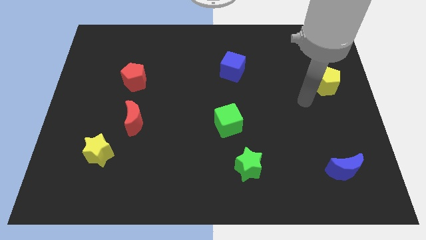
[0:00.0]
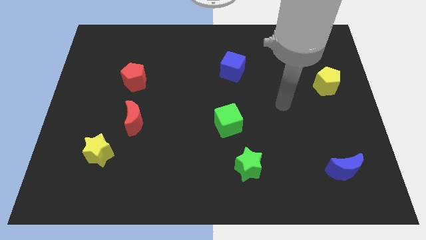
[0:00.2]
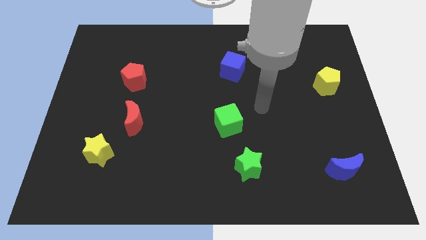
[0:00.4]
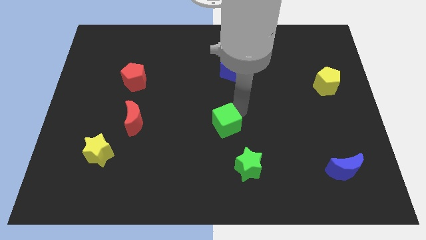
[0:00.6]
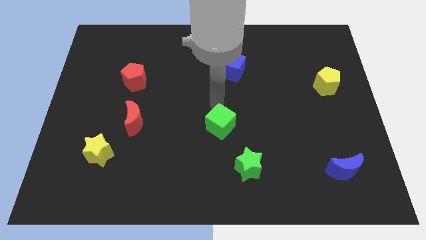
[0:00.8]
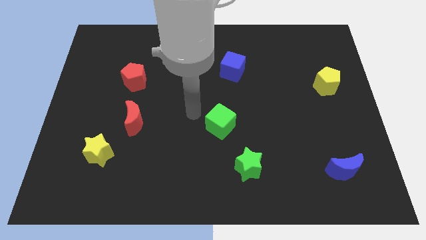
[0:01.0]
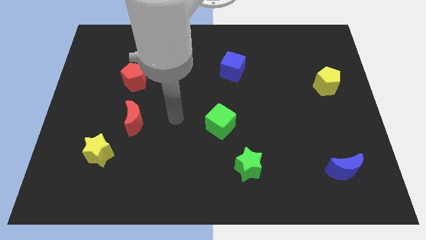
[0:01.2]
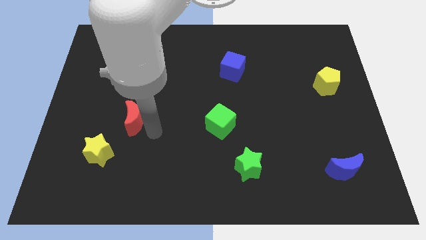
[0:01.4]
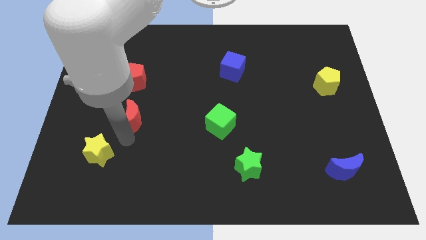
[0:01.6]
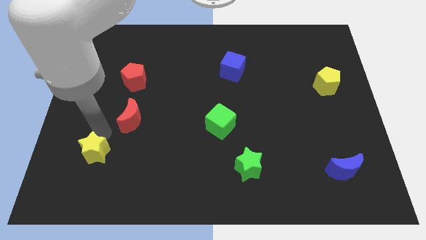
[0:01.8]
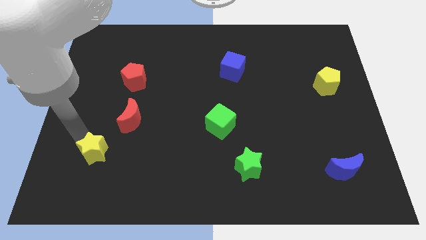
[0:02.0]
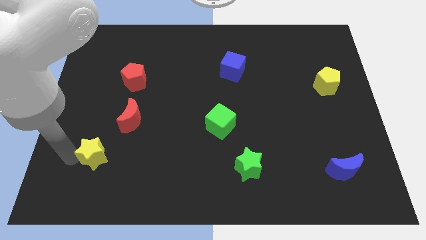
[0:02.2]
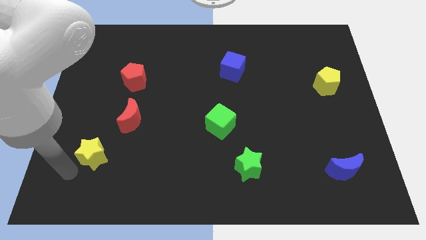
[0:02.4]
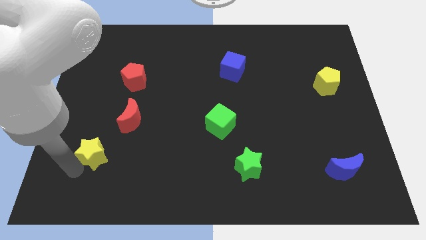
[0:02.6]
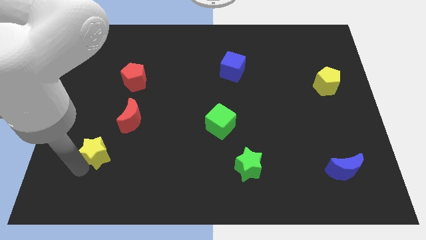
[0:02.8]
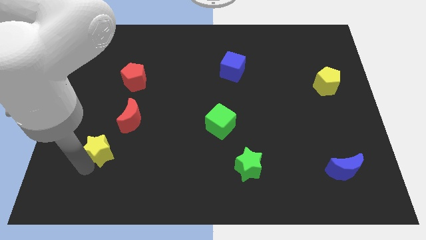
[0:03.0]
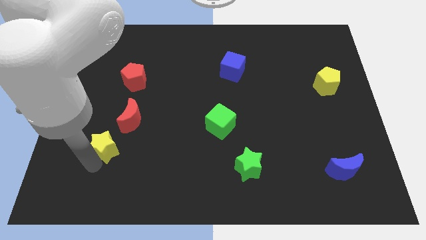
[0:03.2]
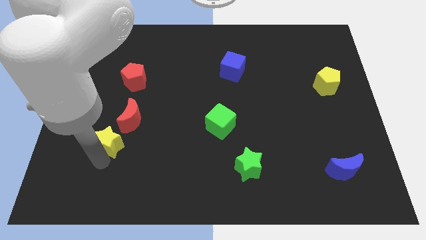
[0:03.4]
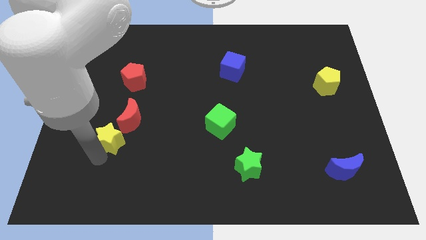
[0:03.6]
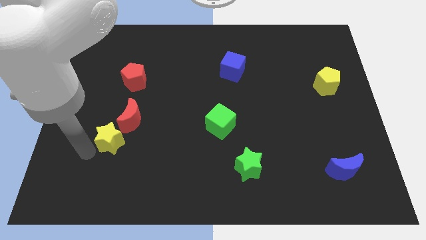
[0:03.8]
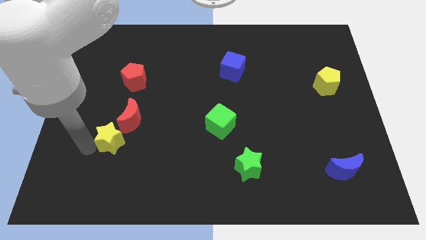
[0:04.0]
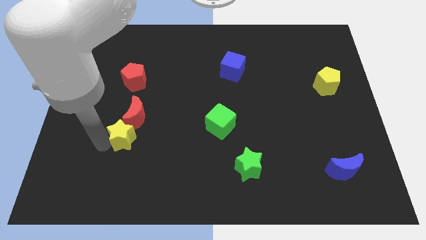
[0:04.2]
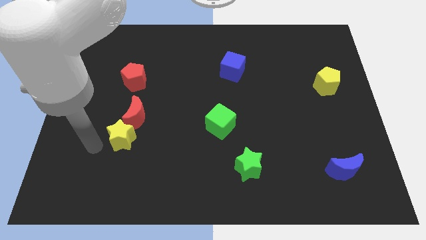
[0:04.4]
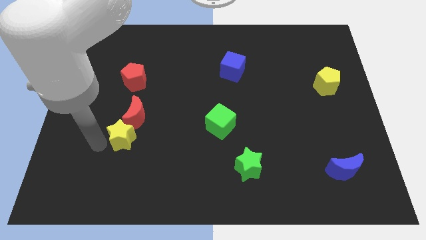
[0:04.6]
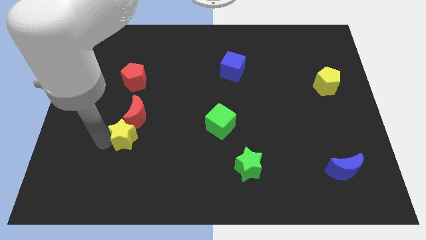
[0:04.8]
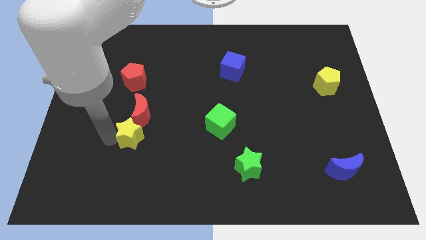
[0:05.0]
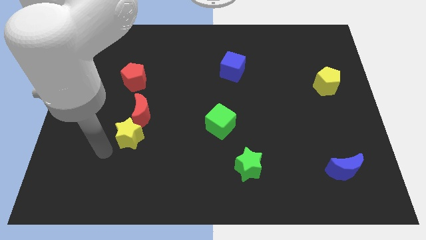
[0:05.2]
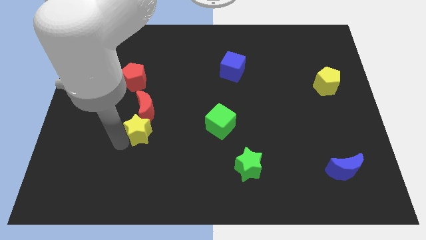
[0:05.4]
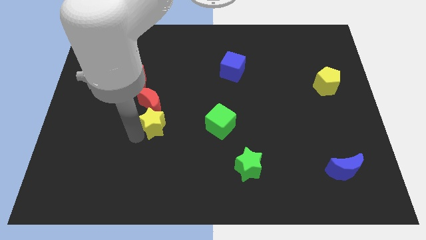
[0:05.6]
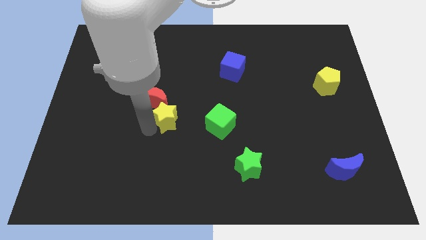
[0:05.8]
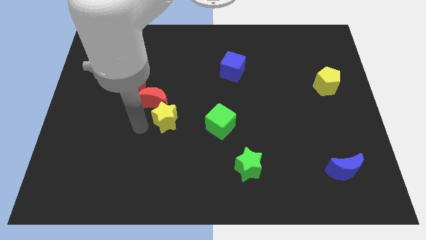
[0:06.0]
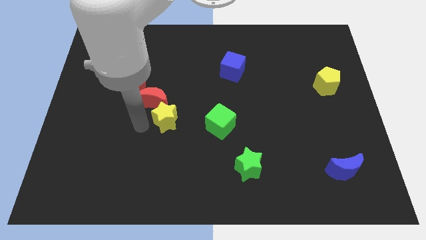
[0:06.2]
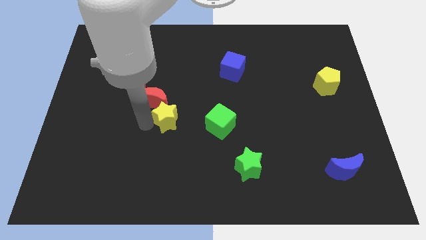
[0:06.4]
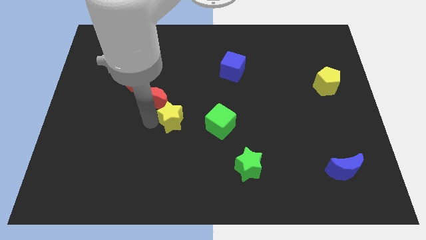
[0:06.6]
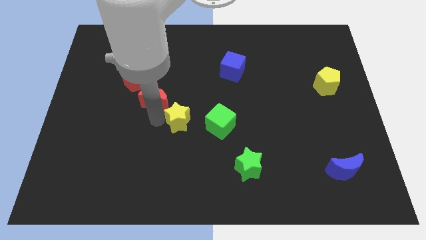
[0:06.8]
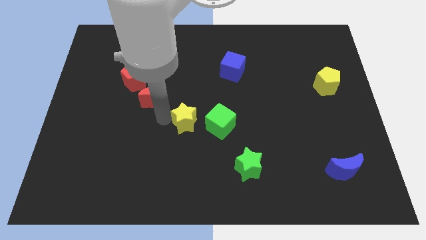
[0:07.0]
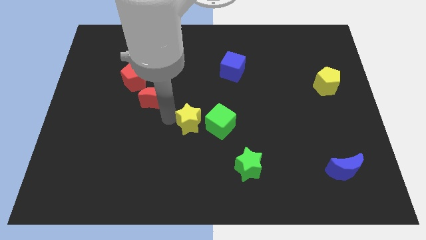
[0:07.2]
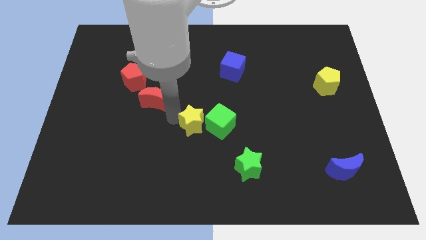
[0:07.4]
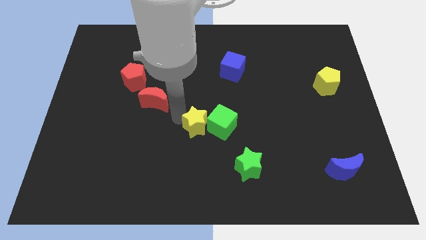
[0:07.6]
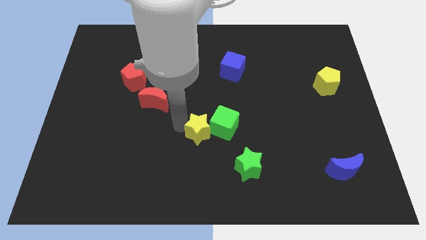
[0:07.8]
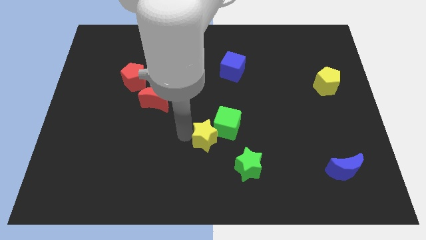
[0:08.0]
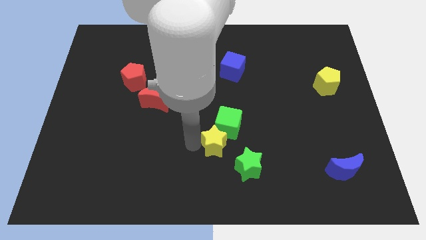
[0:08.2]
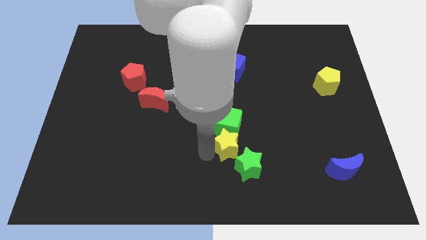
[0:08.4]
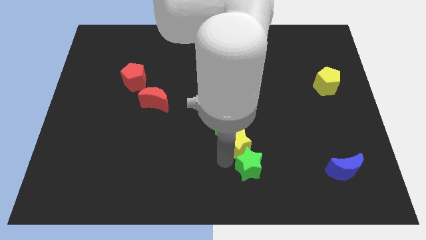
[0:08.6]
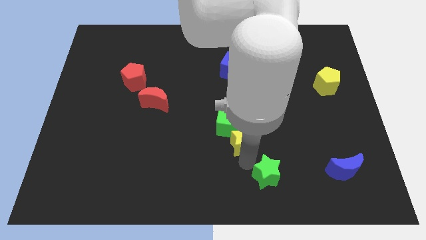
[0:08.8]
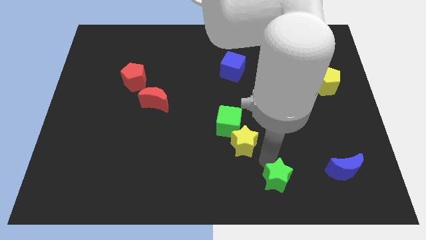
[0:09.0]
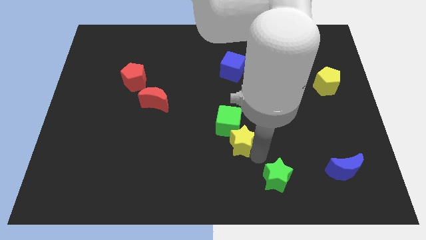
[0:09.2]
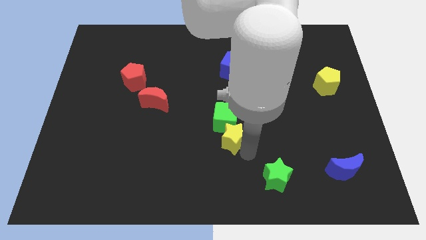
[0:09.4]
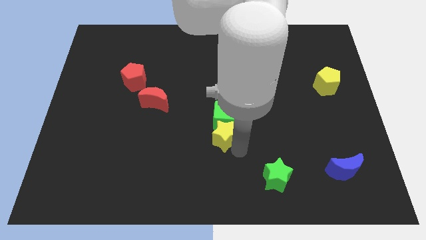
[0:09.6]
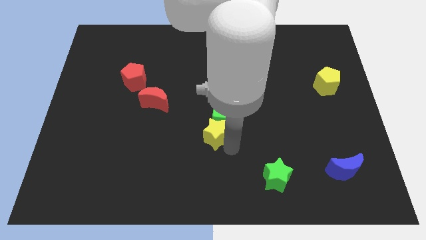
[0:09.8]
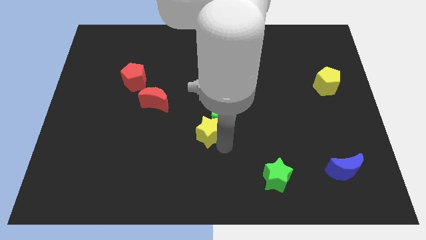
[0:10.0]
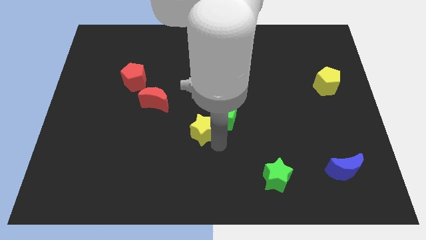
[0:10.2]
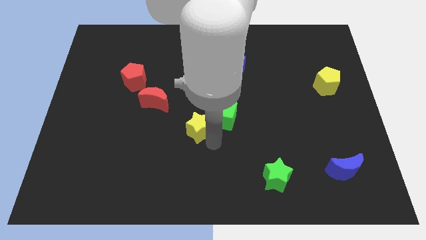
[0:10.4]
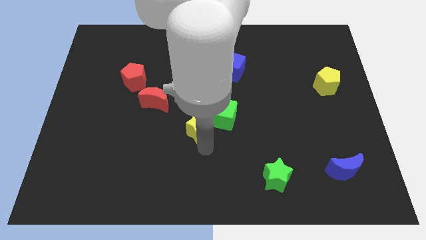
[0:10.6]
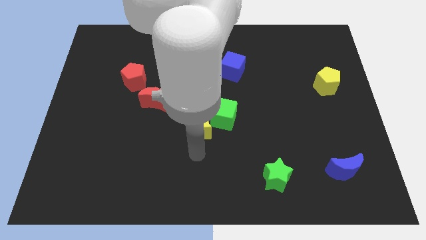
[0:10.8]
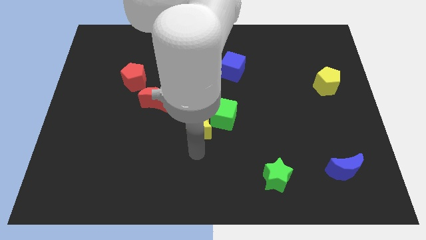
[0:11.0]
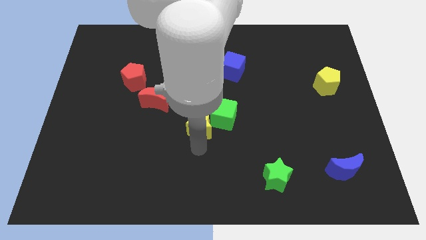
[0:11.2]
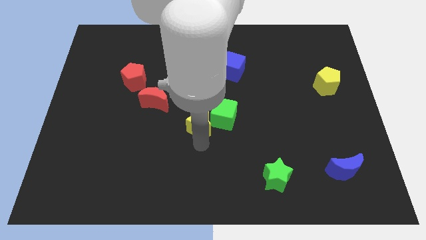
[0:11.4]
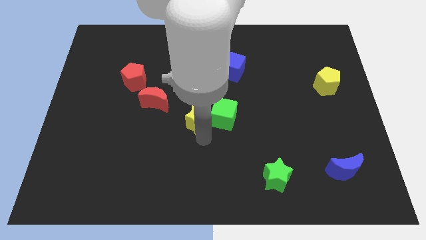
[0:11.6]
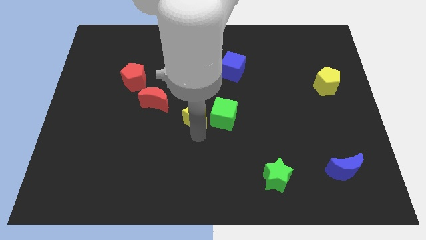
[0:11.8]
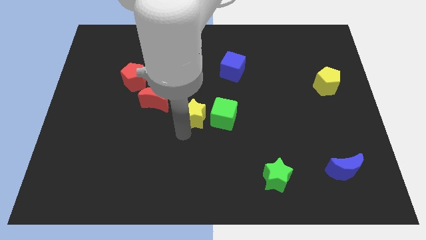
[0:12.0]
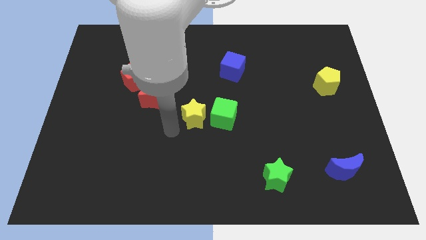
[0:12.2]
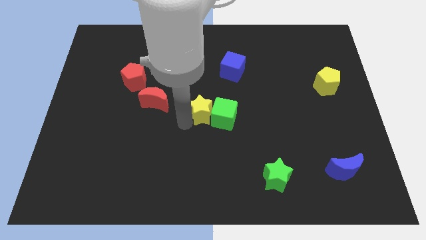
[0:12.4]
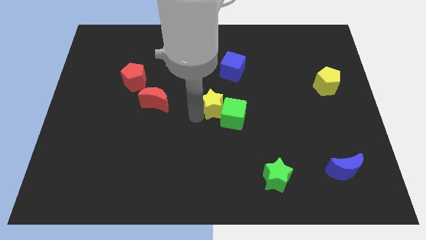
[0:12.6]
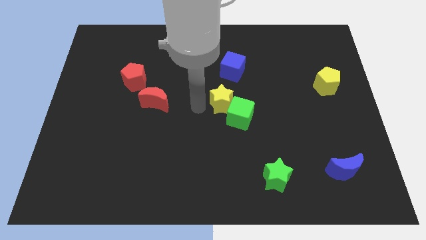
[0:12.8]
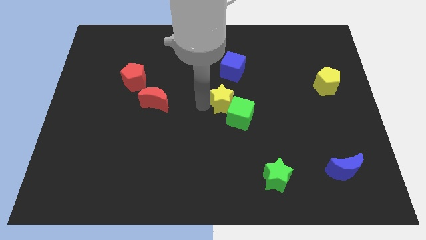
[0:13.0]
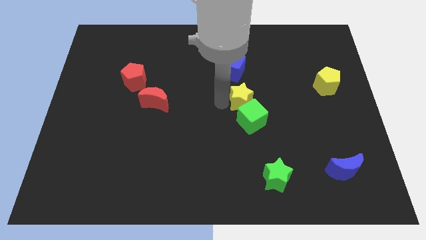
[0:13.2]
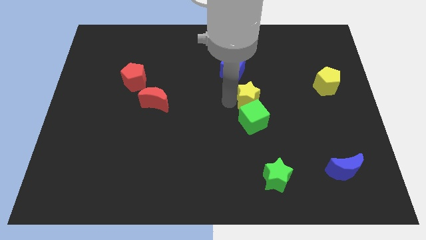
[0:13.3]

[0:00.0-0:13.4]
move the yellow star to the top right of the green cube

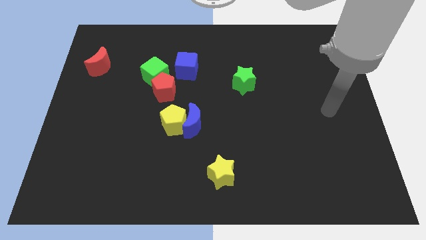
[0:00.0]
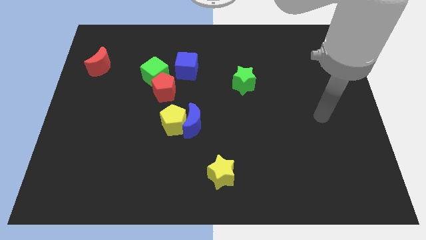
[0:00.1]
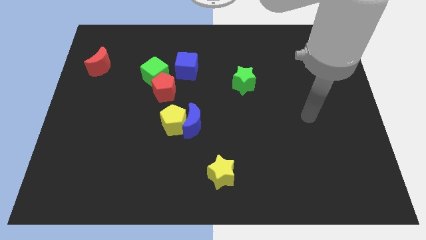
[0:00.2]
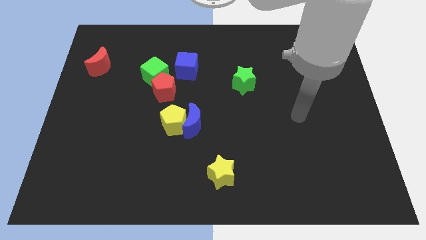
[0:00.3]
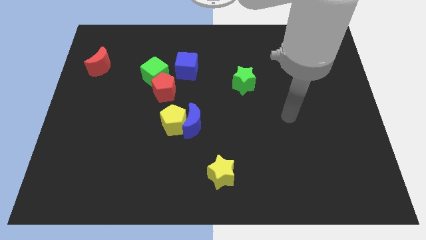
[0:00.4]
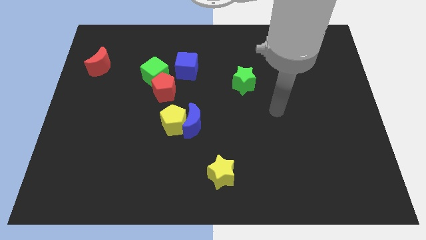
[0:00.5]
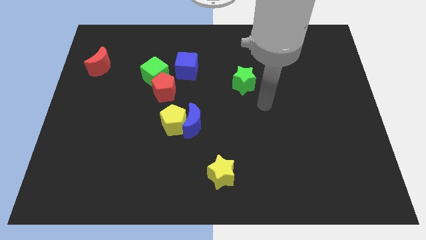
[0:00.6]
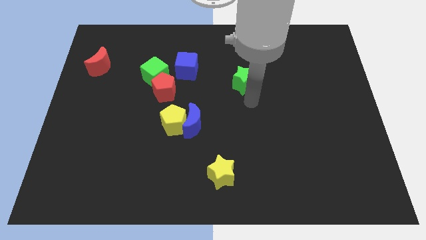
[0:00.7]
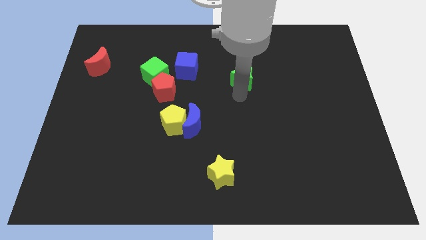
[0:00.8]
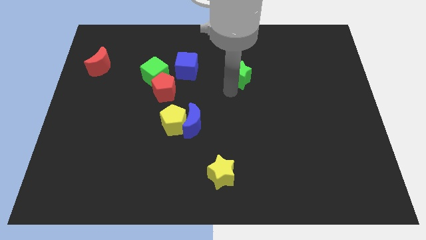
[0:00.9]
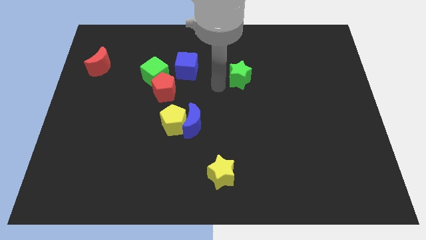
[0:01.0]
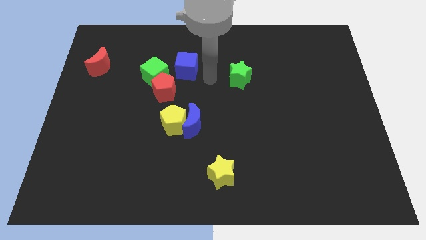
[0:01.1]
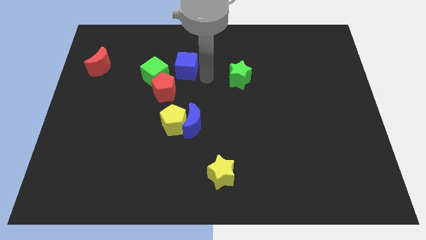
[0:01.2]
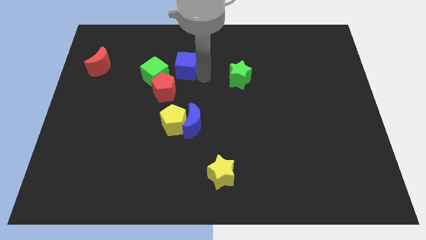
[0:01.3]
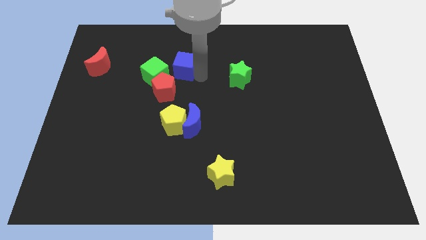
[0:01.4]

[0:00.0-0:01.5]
push the blue cube above the red pentagon
